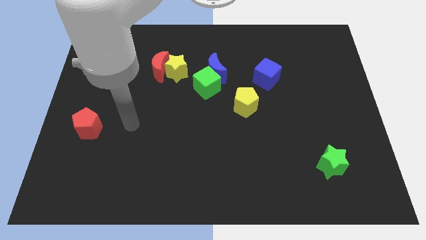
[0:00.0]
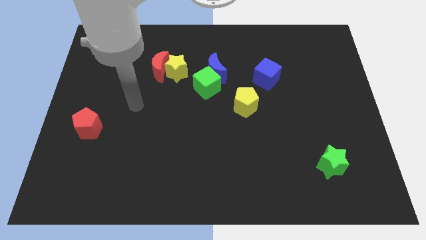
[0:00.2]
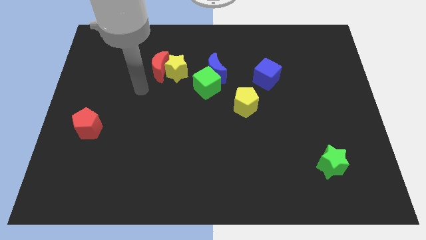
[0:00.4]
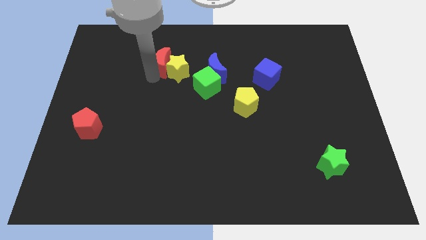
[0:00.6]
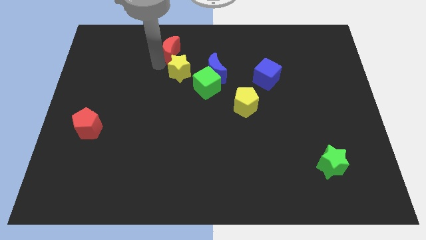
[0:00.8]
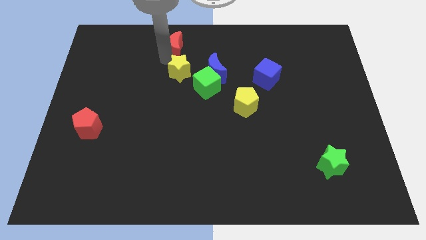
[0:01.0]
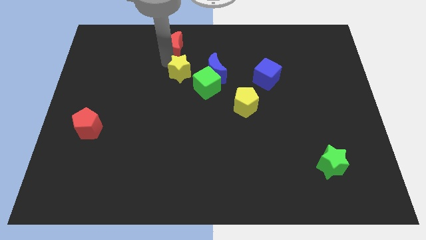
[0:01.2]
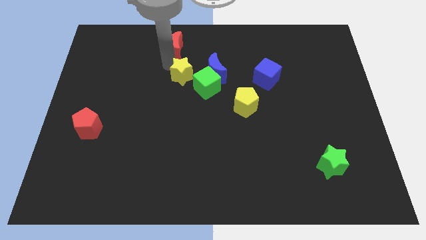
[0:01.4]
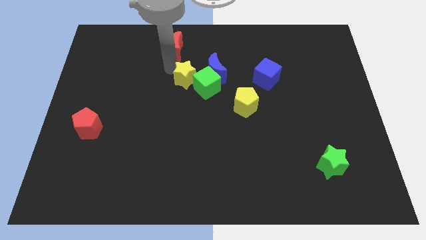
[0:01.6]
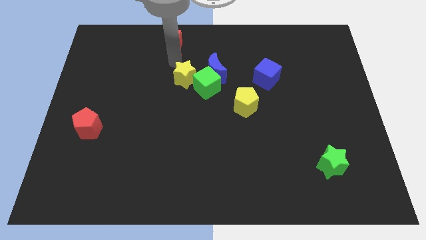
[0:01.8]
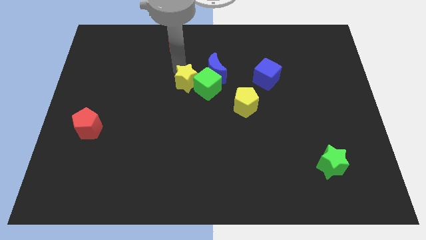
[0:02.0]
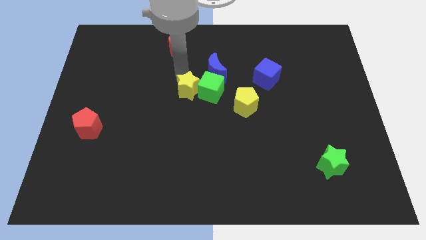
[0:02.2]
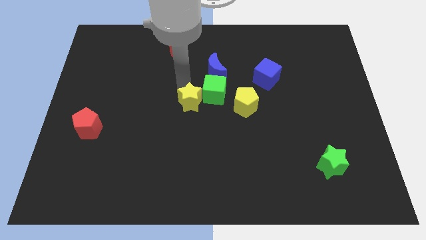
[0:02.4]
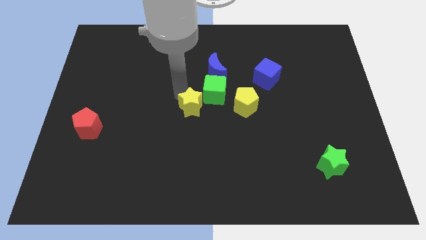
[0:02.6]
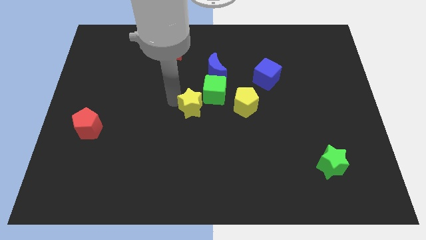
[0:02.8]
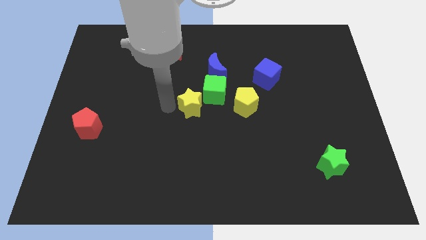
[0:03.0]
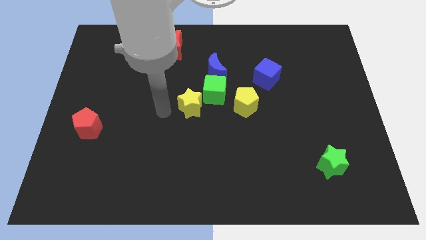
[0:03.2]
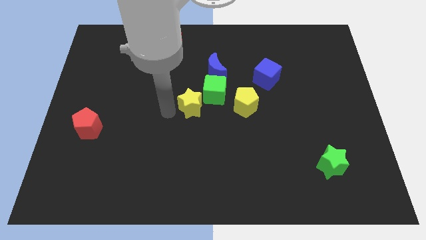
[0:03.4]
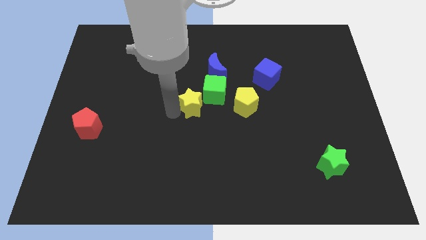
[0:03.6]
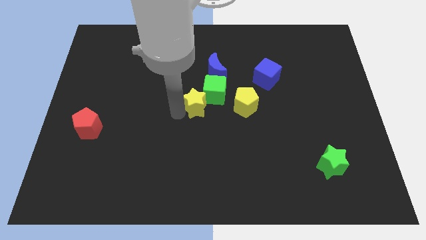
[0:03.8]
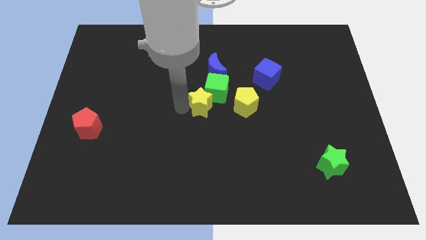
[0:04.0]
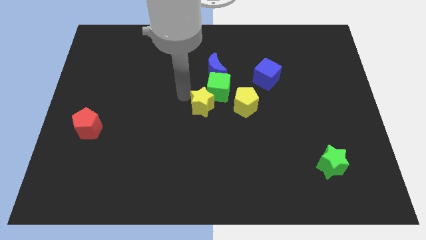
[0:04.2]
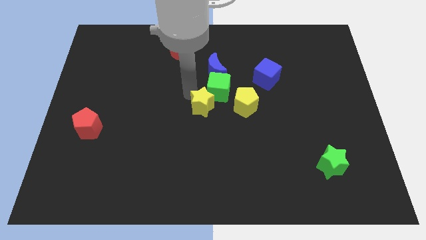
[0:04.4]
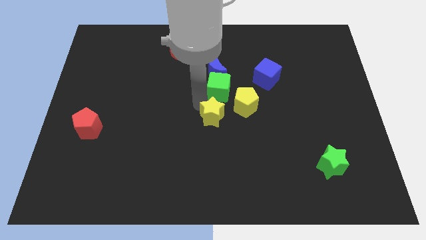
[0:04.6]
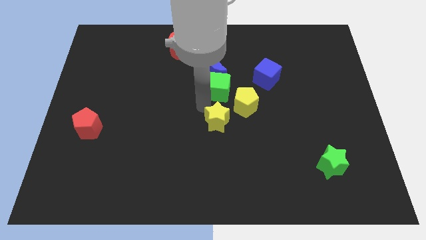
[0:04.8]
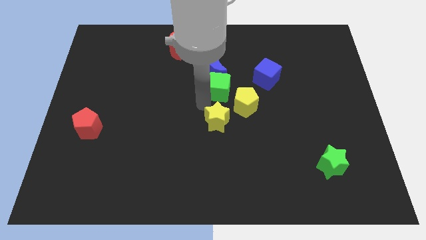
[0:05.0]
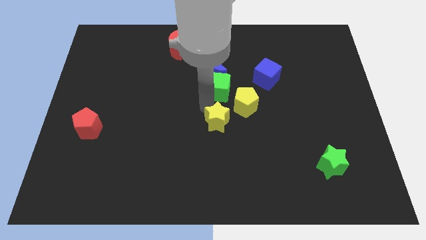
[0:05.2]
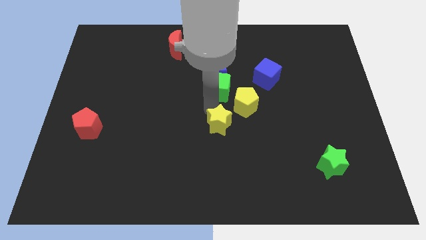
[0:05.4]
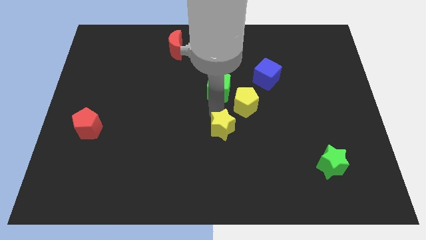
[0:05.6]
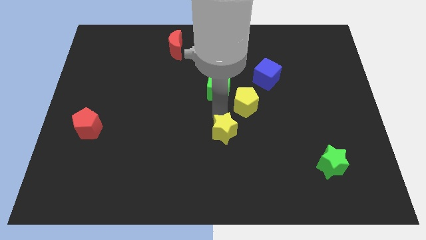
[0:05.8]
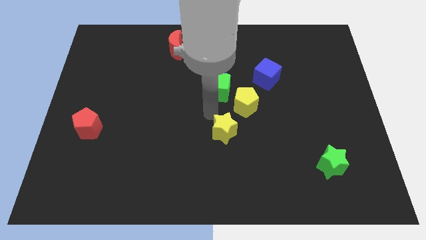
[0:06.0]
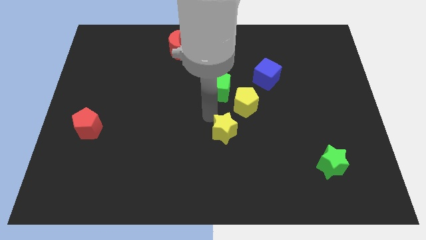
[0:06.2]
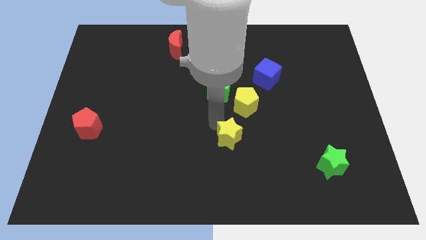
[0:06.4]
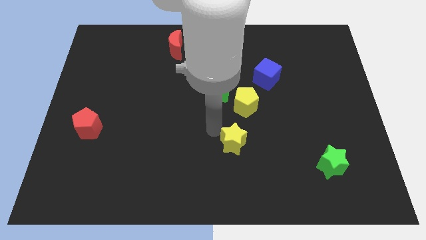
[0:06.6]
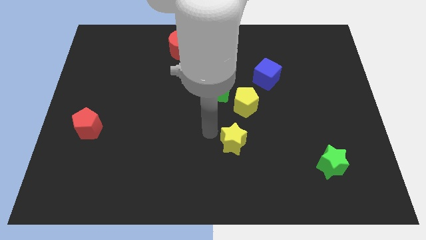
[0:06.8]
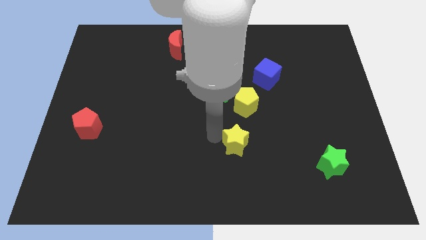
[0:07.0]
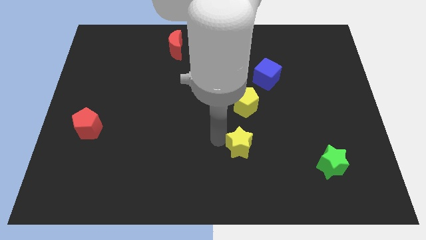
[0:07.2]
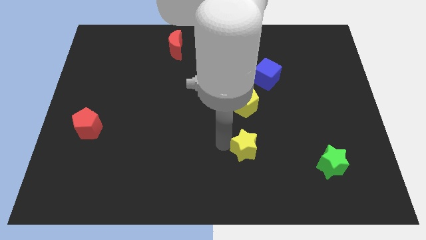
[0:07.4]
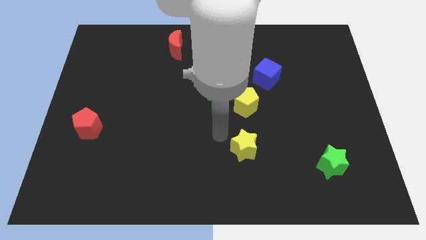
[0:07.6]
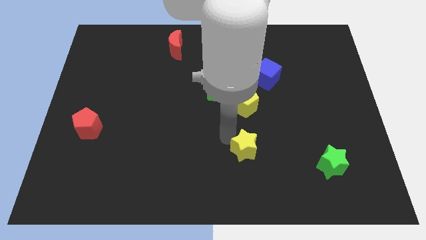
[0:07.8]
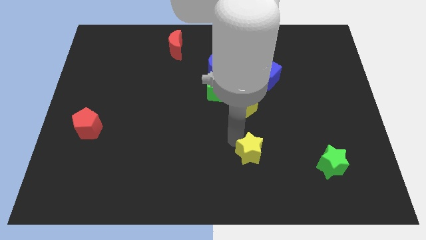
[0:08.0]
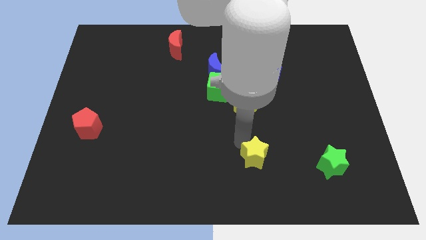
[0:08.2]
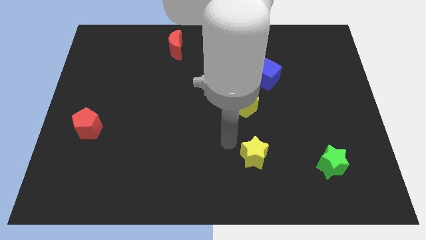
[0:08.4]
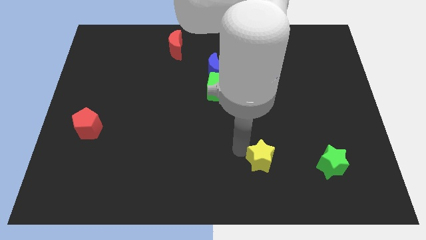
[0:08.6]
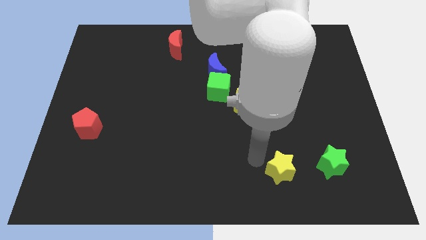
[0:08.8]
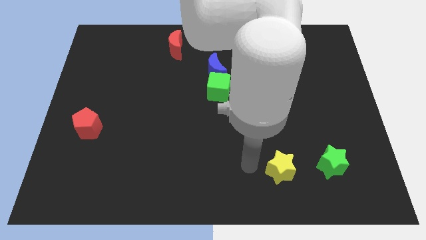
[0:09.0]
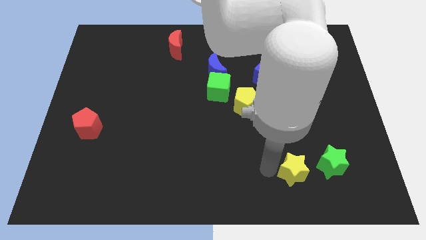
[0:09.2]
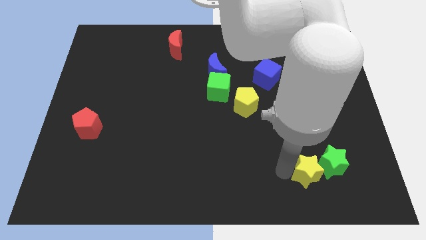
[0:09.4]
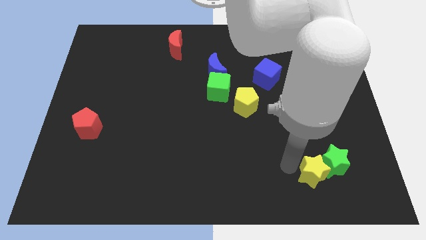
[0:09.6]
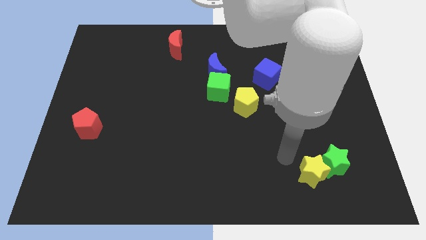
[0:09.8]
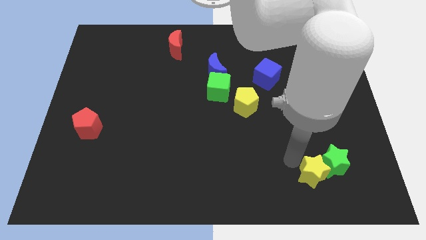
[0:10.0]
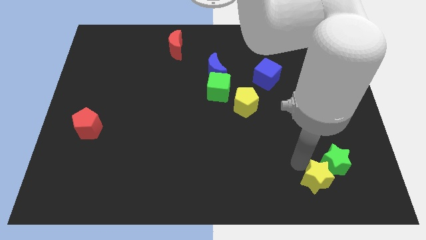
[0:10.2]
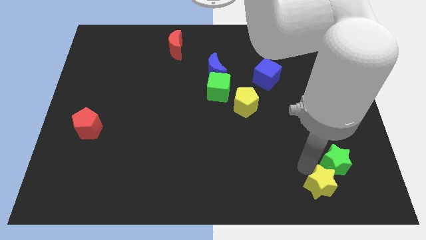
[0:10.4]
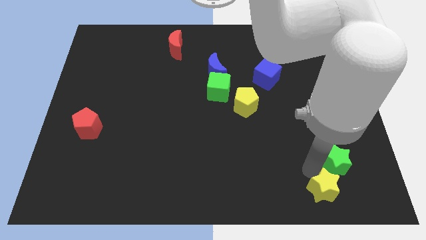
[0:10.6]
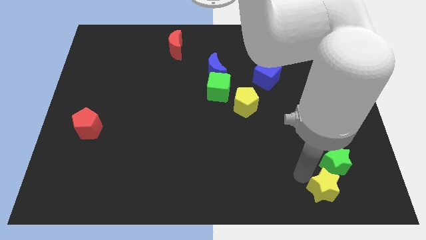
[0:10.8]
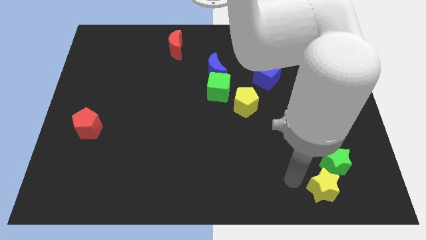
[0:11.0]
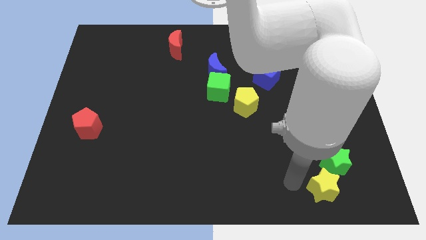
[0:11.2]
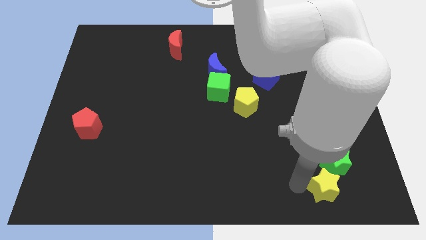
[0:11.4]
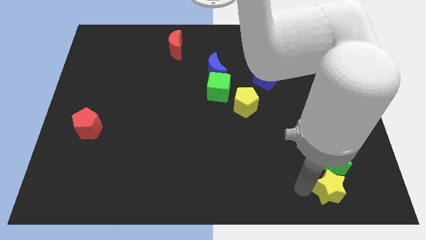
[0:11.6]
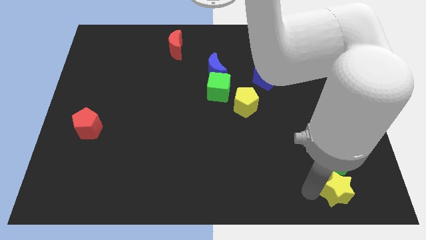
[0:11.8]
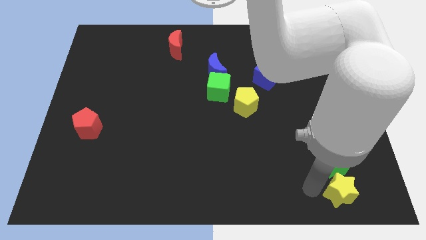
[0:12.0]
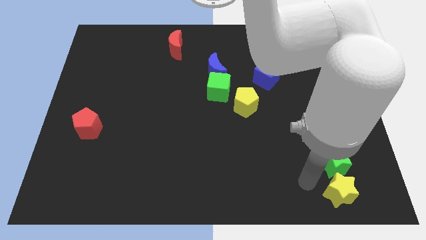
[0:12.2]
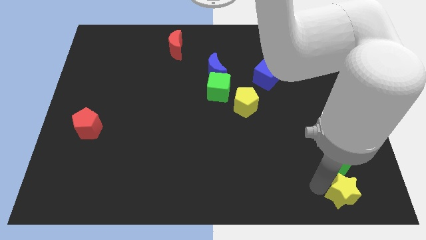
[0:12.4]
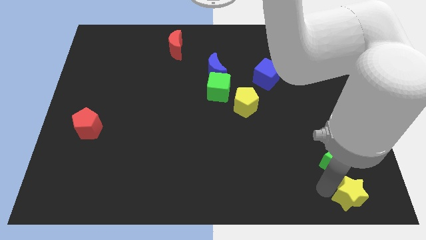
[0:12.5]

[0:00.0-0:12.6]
put the yellow star to the bottom right
